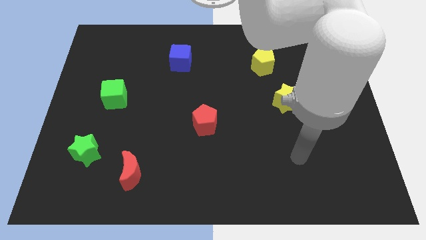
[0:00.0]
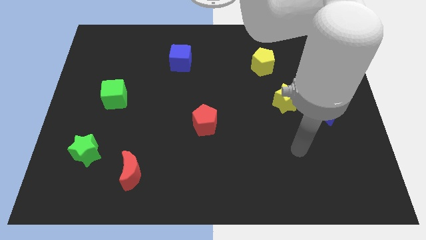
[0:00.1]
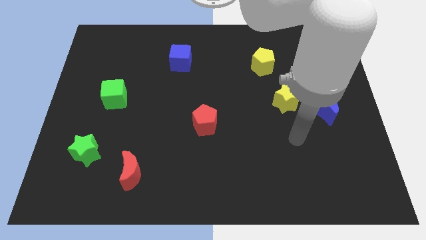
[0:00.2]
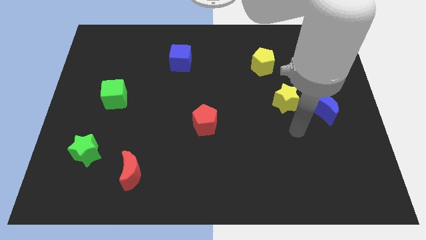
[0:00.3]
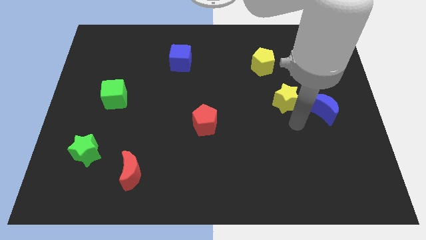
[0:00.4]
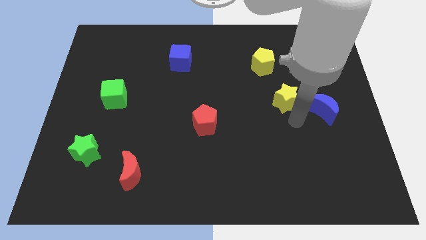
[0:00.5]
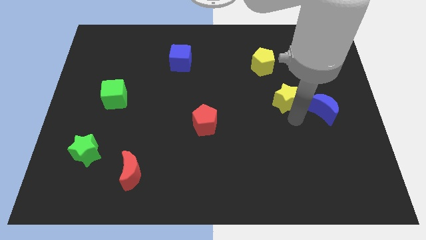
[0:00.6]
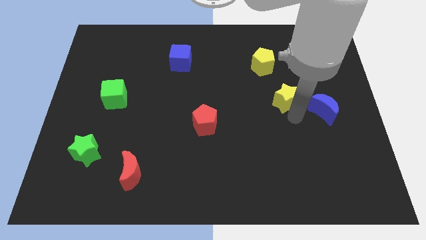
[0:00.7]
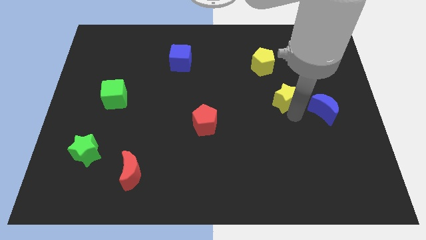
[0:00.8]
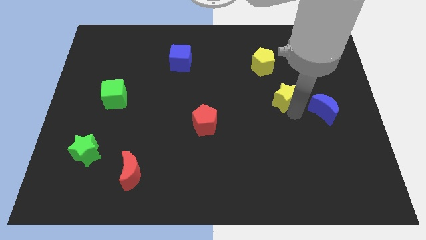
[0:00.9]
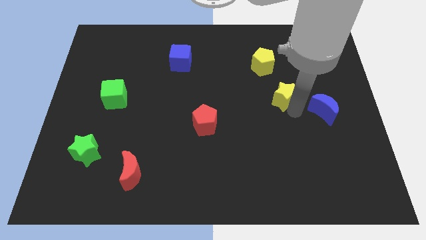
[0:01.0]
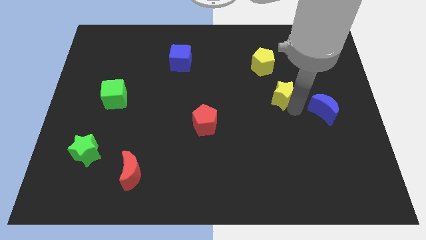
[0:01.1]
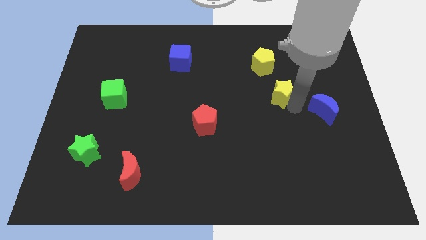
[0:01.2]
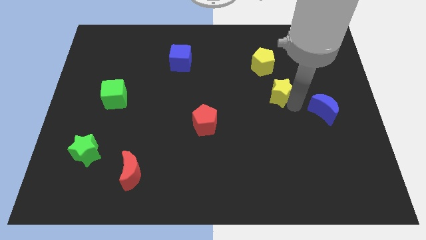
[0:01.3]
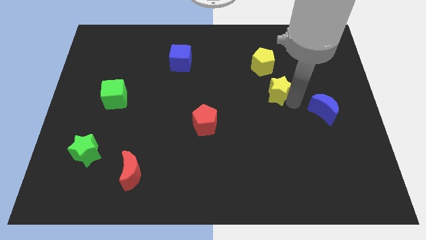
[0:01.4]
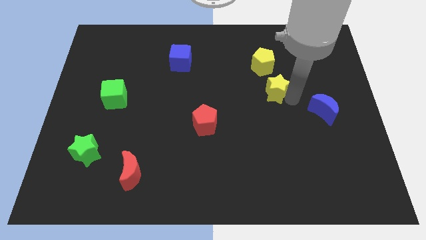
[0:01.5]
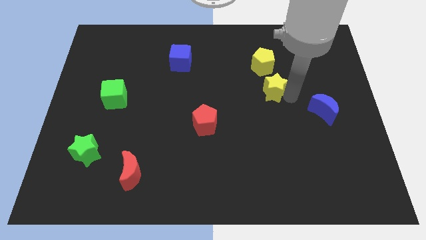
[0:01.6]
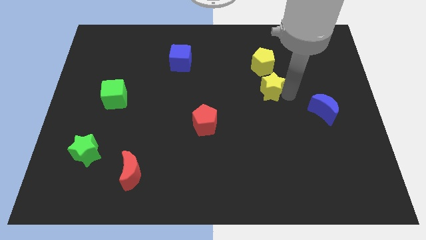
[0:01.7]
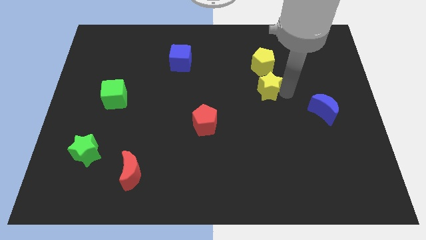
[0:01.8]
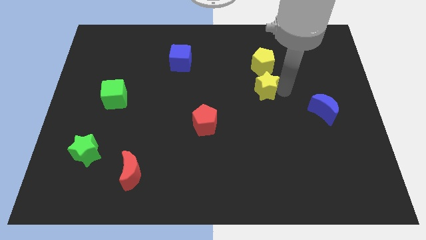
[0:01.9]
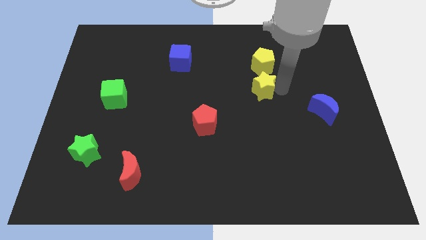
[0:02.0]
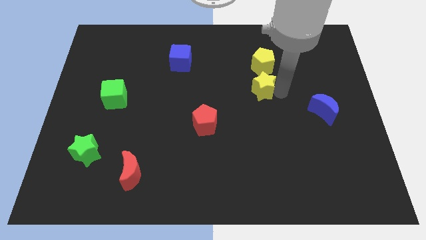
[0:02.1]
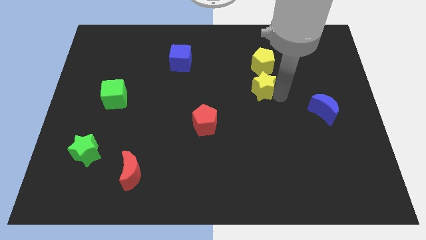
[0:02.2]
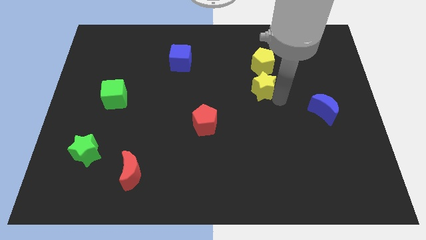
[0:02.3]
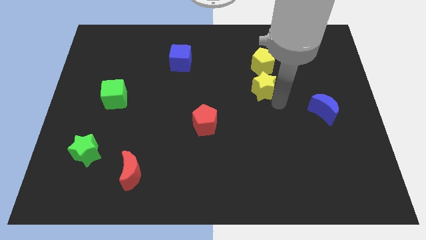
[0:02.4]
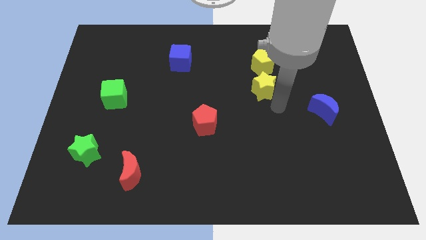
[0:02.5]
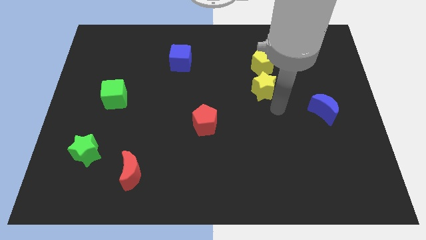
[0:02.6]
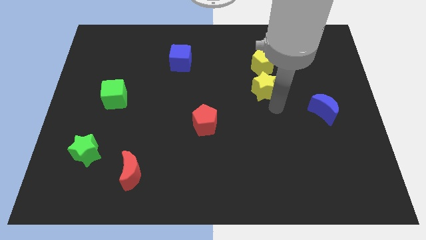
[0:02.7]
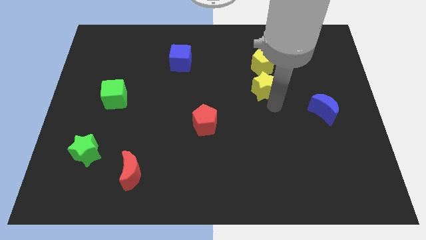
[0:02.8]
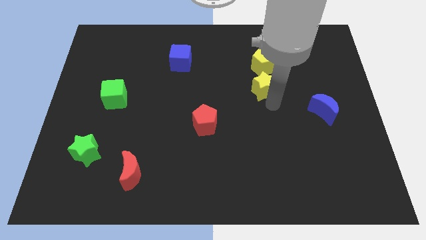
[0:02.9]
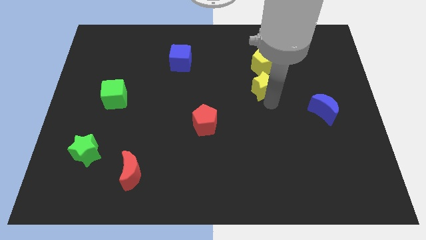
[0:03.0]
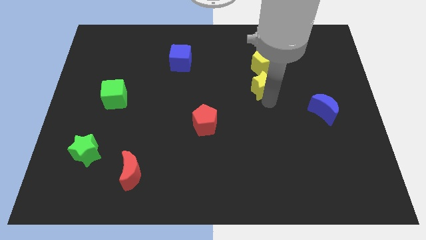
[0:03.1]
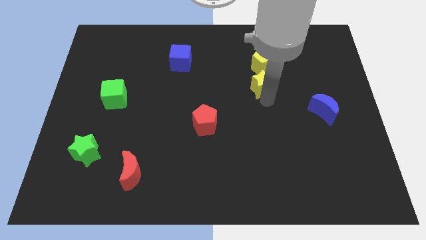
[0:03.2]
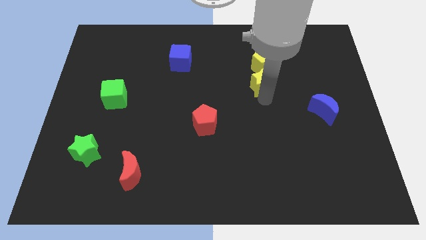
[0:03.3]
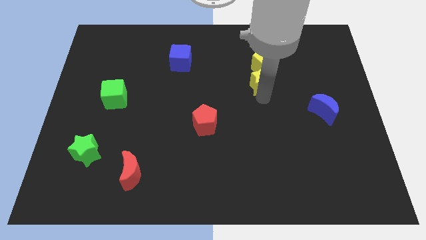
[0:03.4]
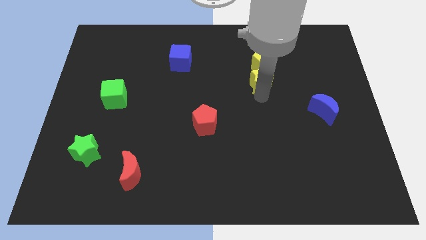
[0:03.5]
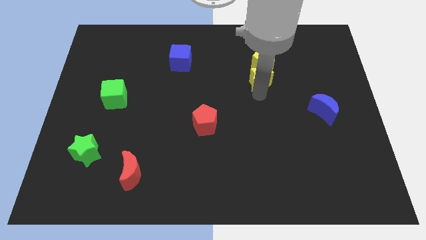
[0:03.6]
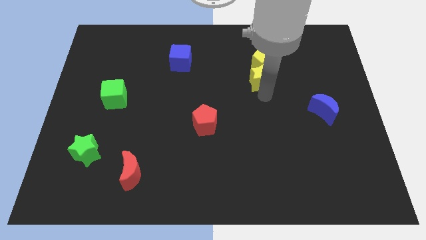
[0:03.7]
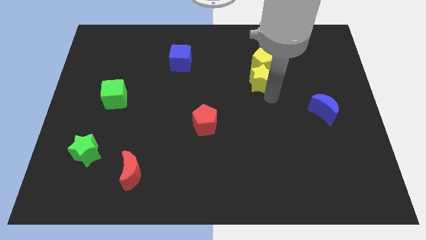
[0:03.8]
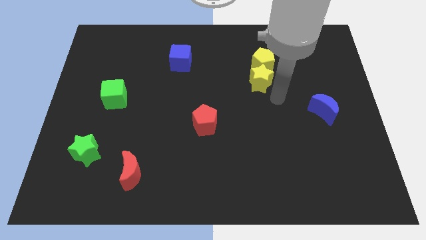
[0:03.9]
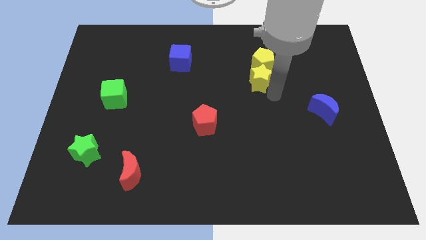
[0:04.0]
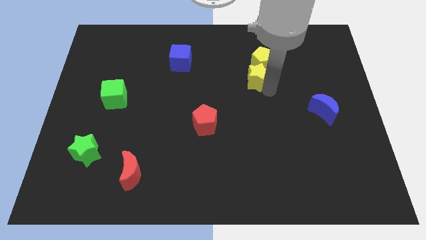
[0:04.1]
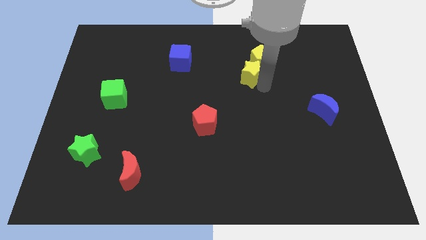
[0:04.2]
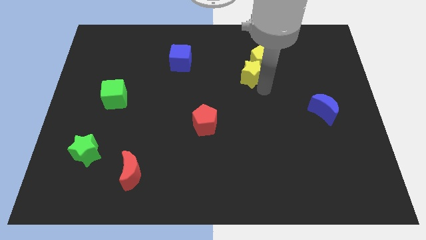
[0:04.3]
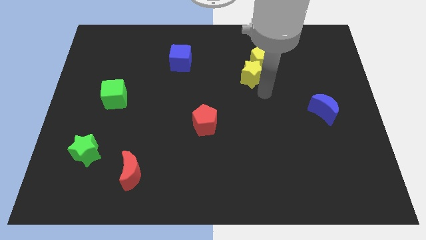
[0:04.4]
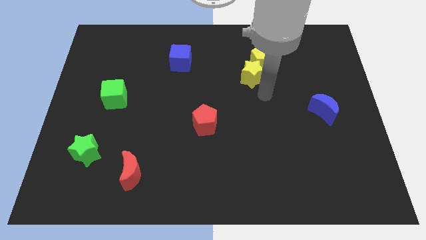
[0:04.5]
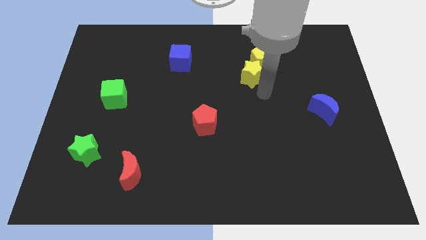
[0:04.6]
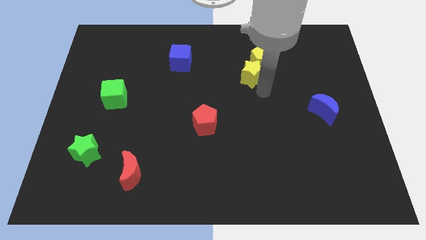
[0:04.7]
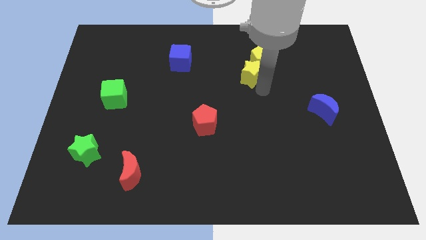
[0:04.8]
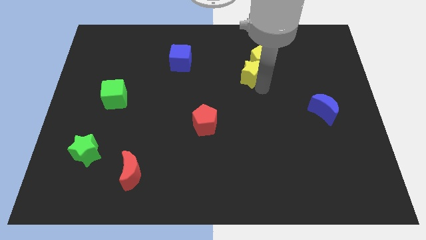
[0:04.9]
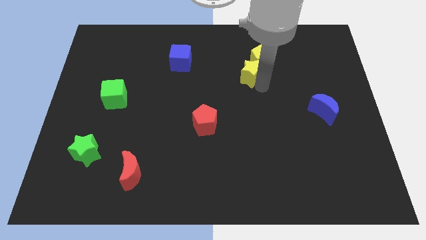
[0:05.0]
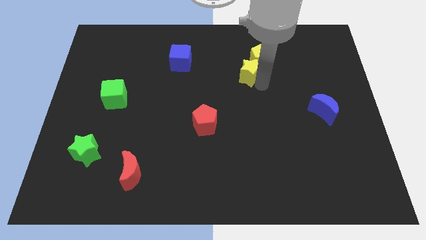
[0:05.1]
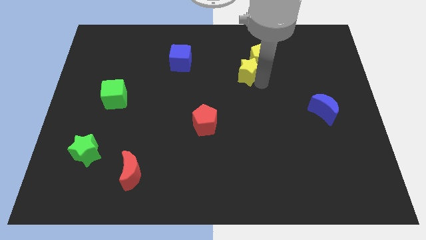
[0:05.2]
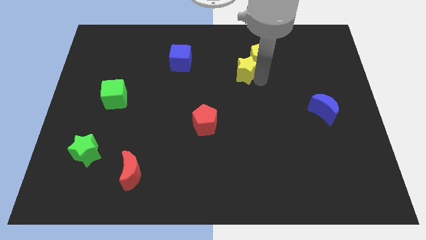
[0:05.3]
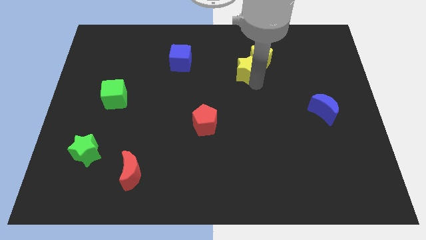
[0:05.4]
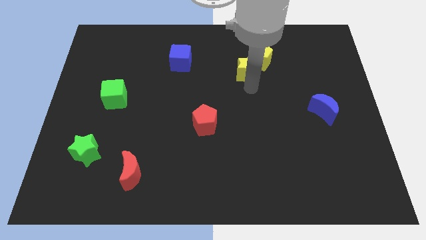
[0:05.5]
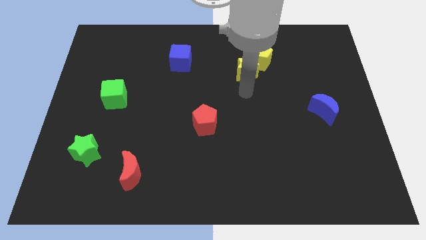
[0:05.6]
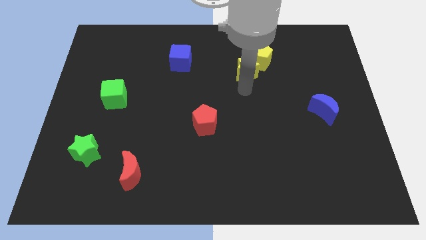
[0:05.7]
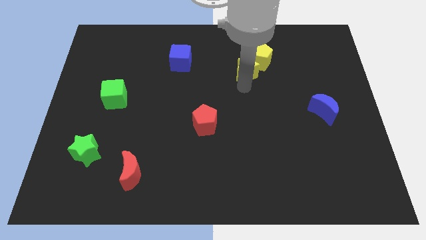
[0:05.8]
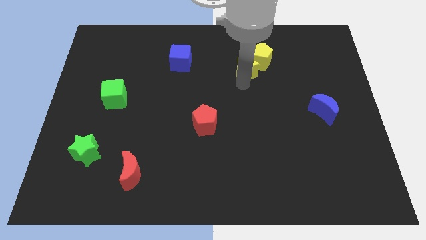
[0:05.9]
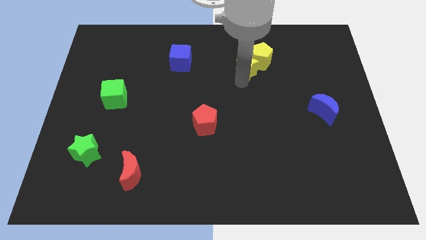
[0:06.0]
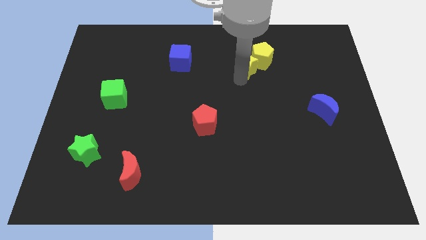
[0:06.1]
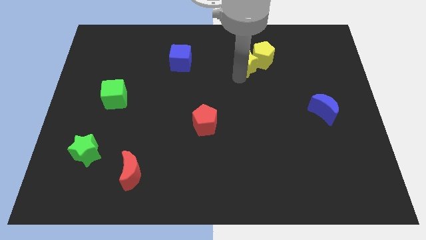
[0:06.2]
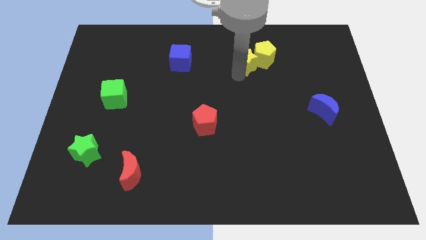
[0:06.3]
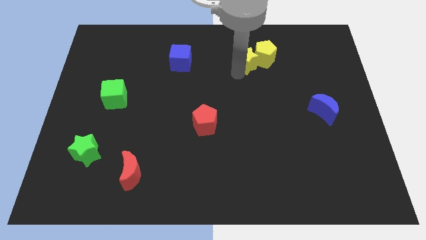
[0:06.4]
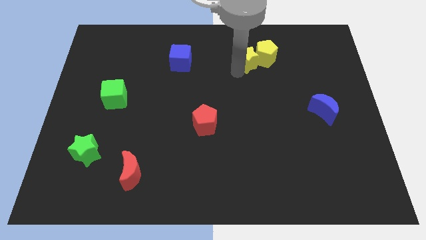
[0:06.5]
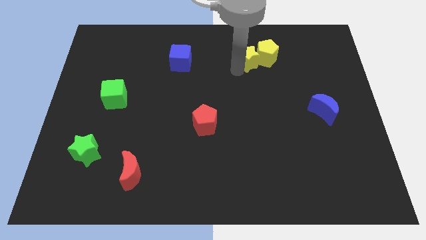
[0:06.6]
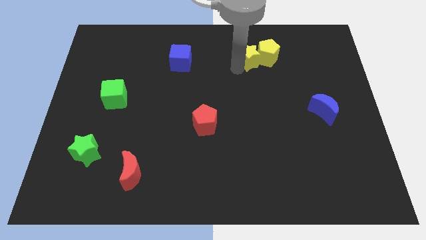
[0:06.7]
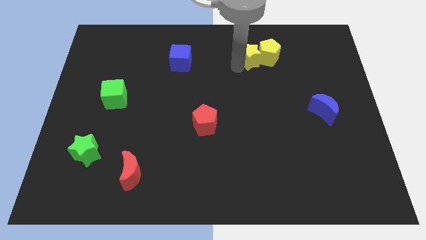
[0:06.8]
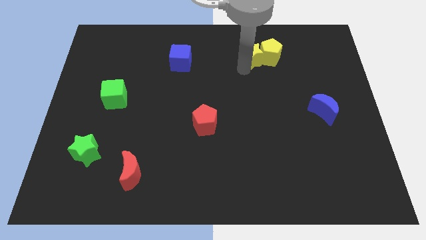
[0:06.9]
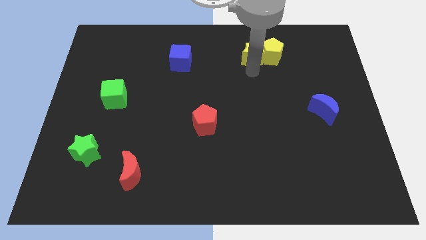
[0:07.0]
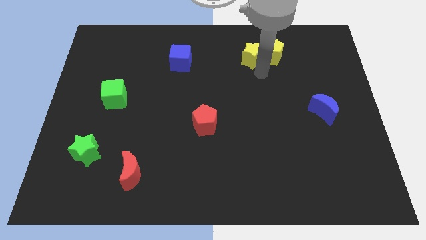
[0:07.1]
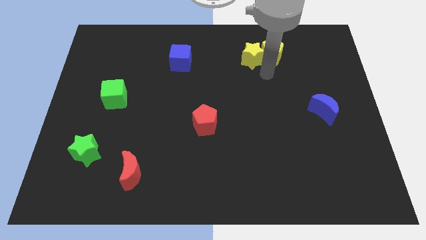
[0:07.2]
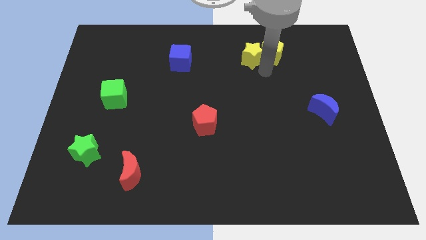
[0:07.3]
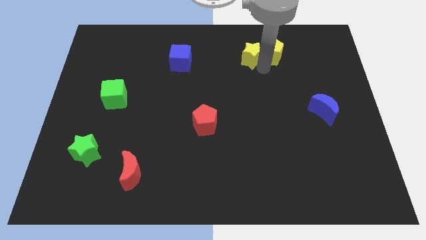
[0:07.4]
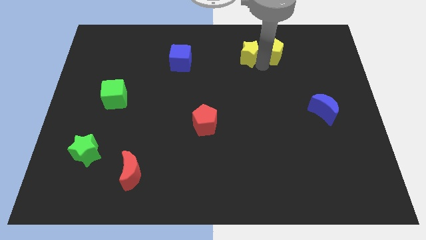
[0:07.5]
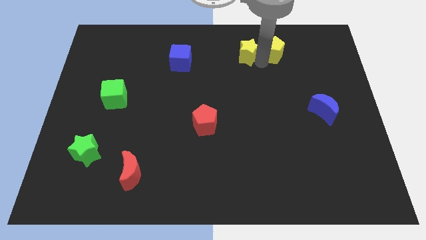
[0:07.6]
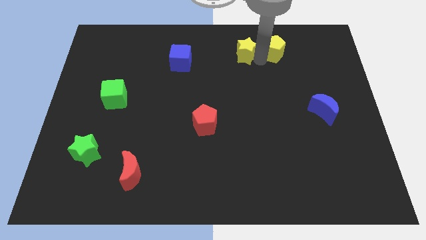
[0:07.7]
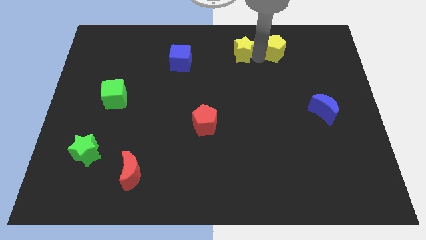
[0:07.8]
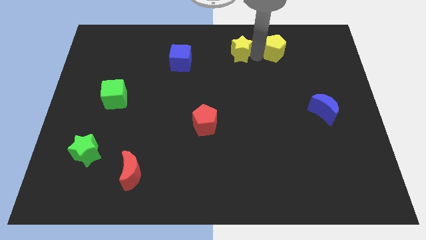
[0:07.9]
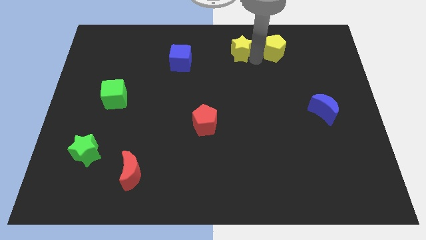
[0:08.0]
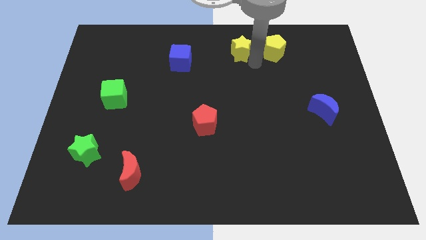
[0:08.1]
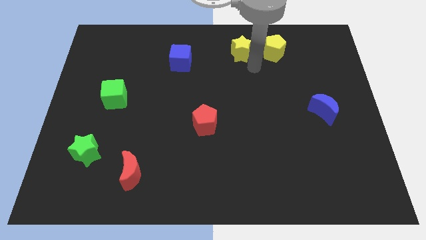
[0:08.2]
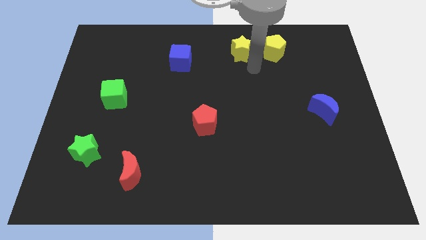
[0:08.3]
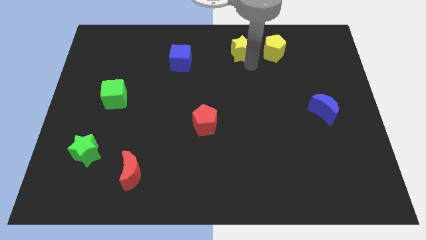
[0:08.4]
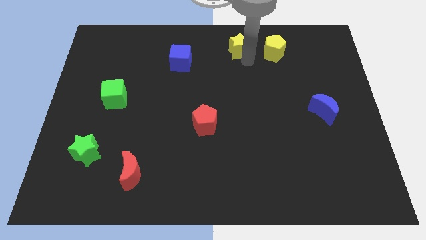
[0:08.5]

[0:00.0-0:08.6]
push the yellow star to the towards your base
